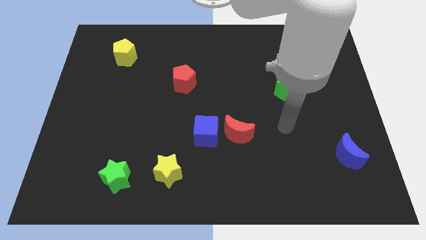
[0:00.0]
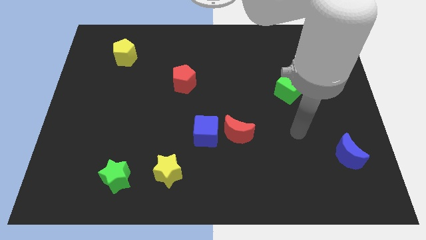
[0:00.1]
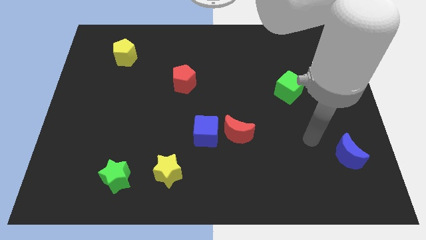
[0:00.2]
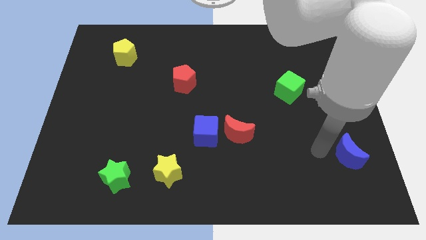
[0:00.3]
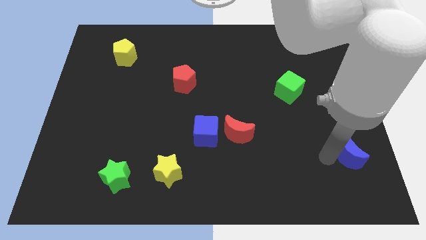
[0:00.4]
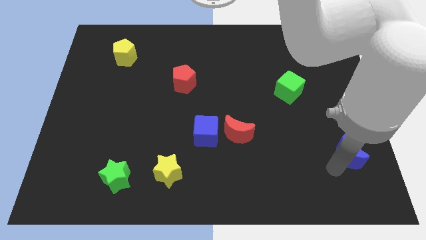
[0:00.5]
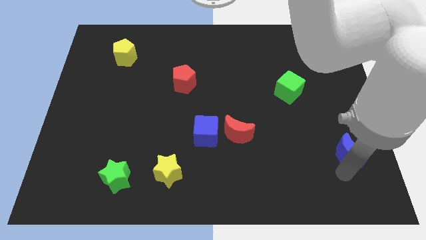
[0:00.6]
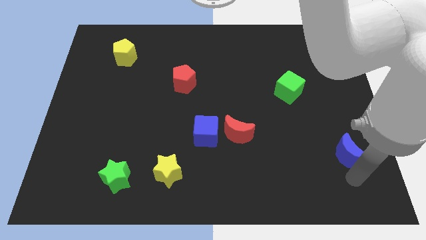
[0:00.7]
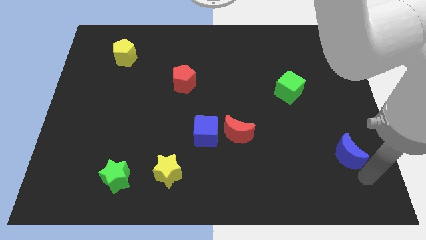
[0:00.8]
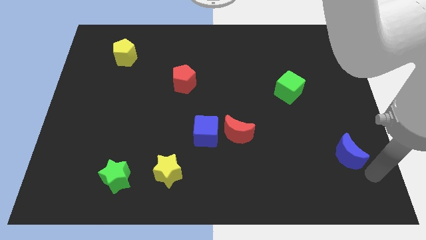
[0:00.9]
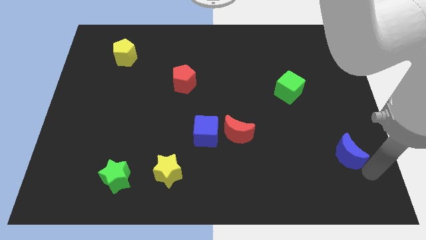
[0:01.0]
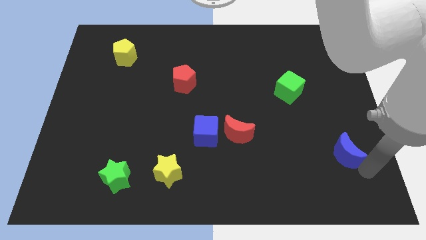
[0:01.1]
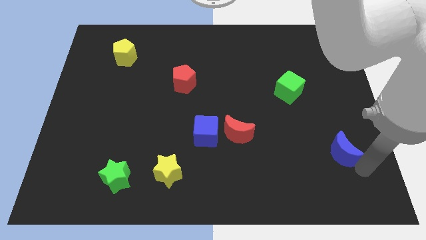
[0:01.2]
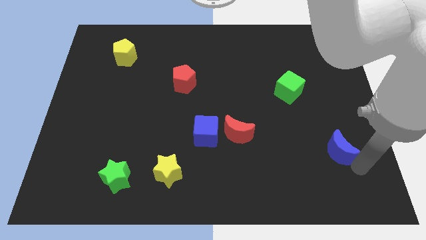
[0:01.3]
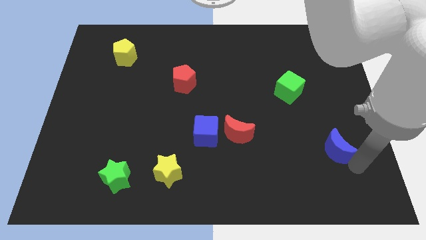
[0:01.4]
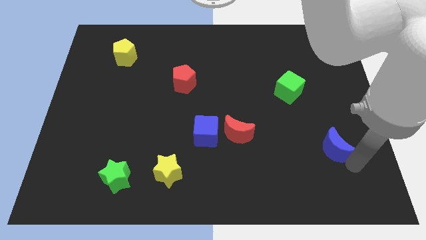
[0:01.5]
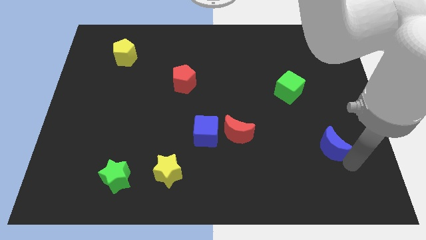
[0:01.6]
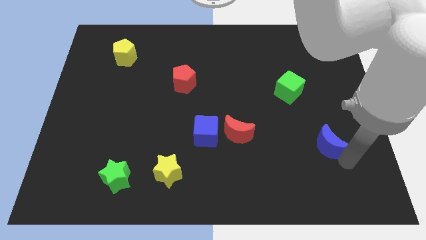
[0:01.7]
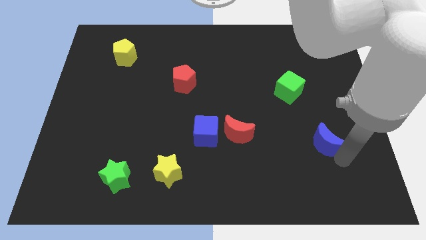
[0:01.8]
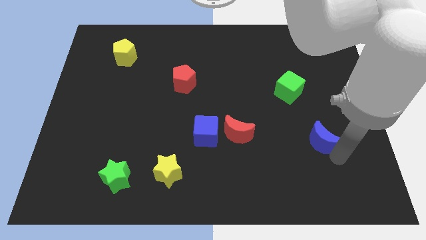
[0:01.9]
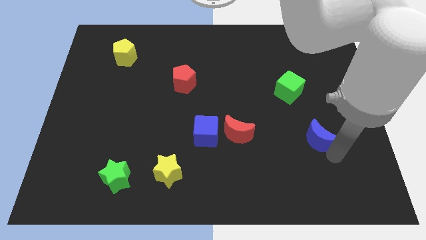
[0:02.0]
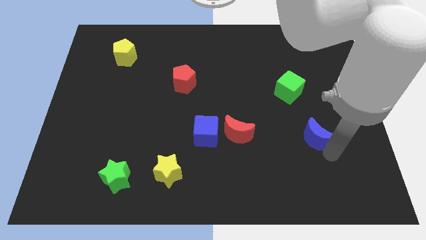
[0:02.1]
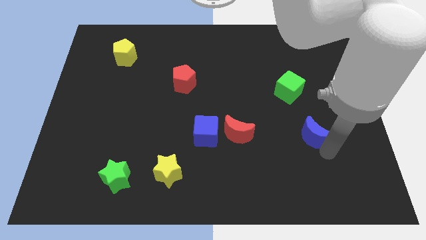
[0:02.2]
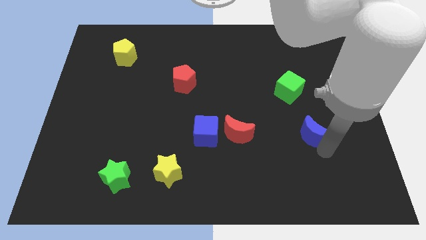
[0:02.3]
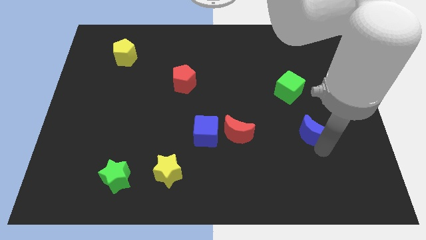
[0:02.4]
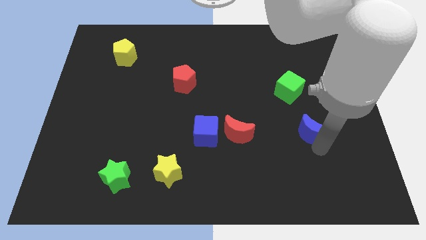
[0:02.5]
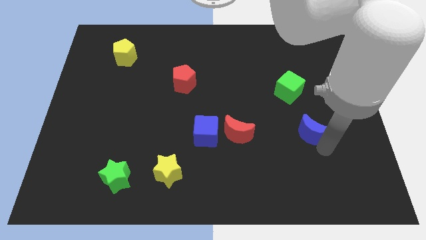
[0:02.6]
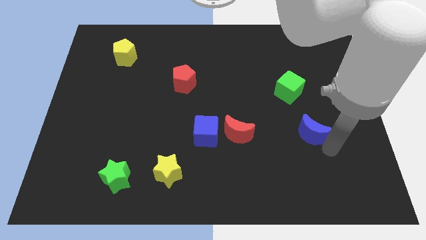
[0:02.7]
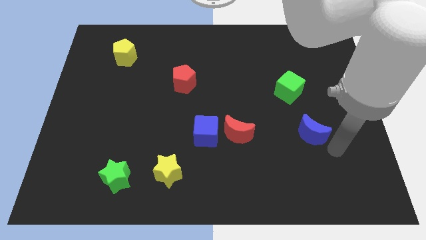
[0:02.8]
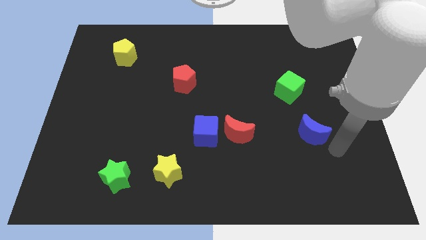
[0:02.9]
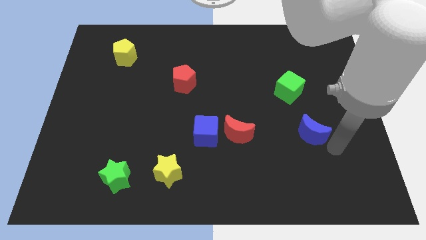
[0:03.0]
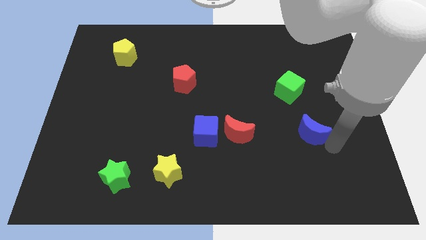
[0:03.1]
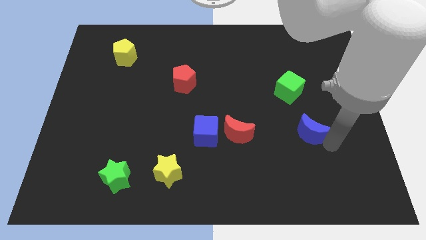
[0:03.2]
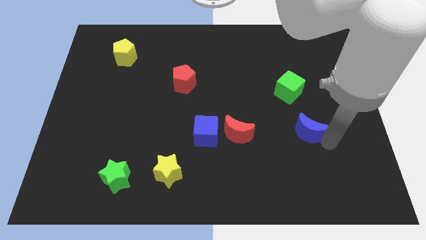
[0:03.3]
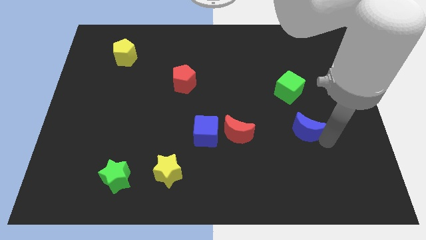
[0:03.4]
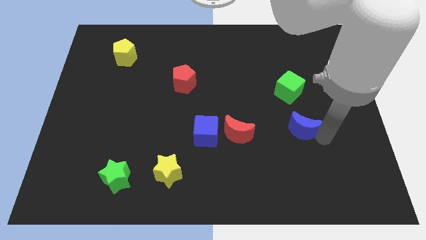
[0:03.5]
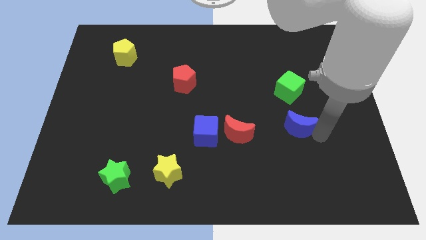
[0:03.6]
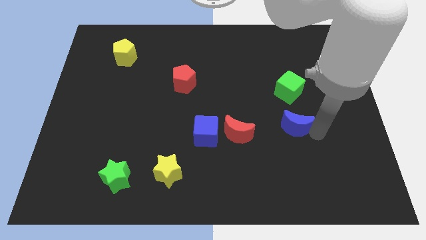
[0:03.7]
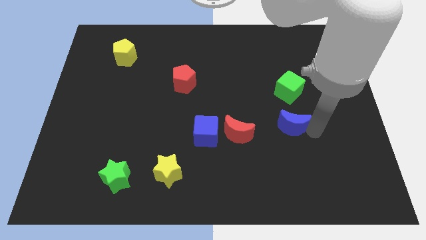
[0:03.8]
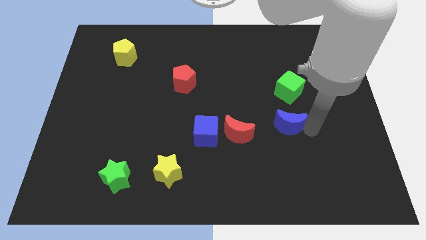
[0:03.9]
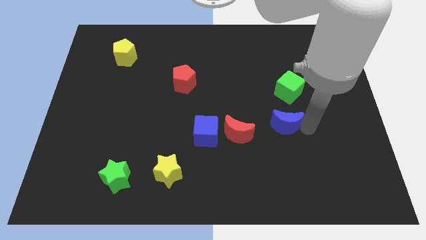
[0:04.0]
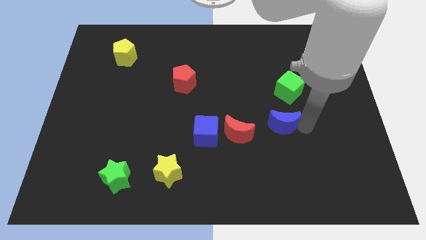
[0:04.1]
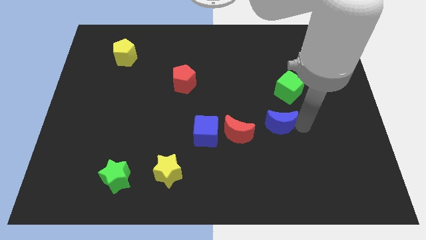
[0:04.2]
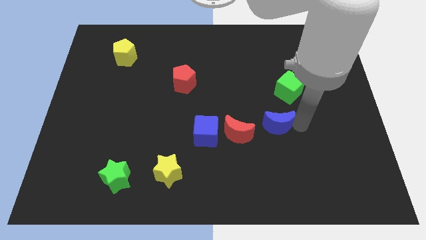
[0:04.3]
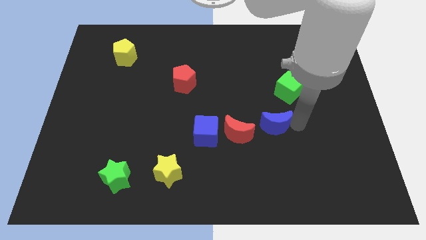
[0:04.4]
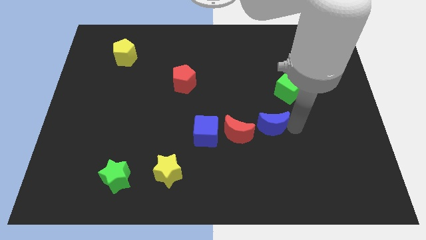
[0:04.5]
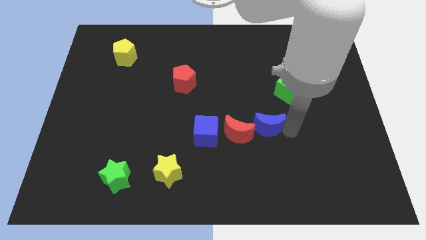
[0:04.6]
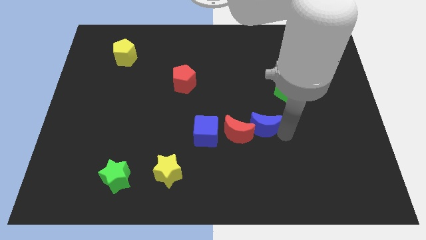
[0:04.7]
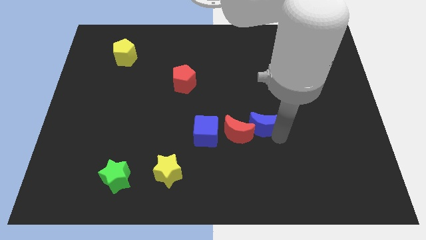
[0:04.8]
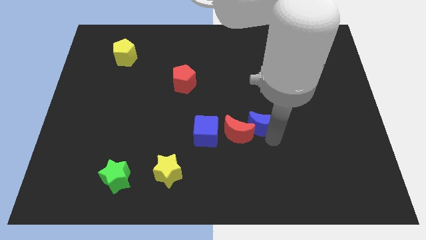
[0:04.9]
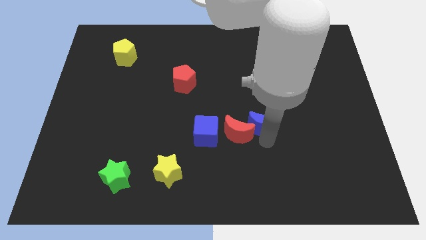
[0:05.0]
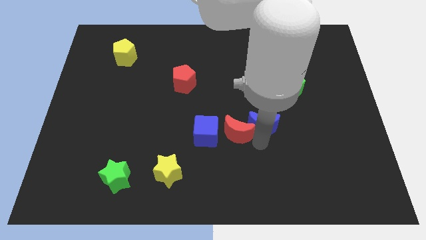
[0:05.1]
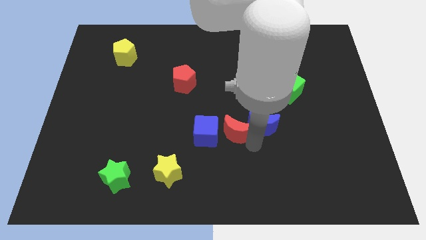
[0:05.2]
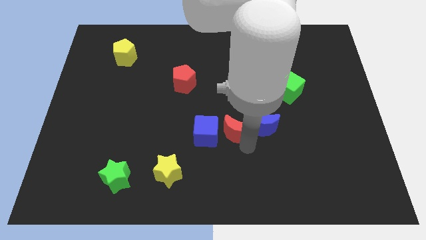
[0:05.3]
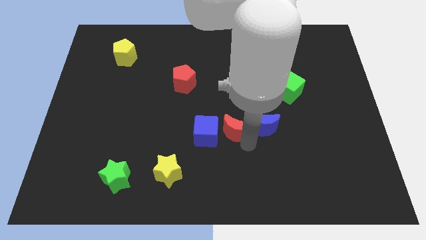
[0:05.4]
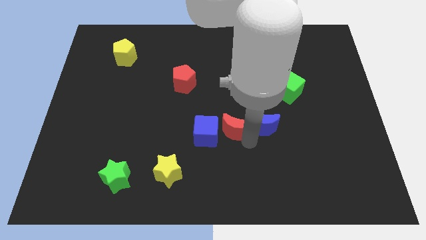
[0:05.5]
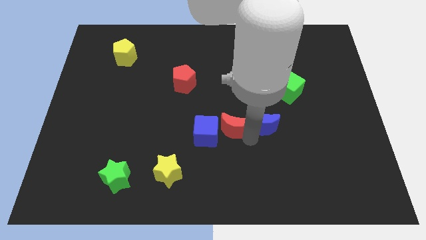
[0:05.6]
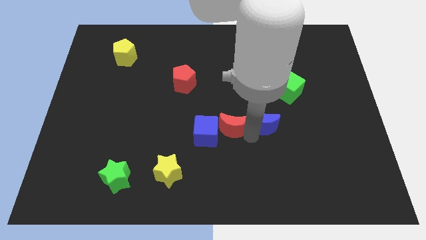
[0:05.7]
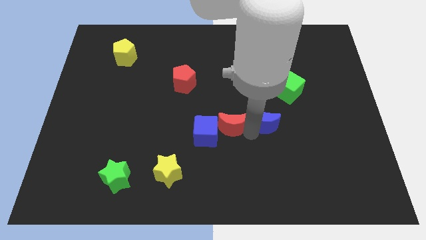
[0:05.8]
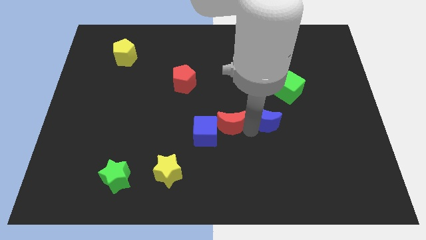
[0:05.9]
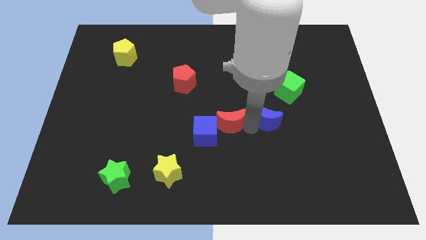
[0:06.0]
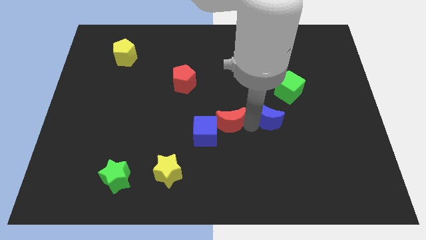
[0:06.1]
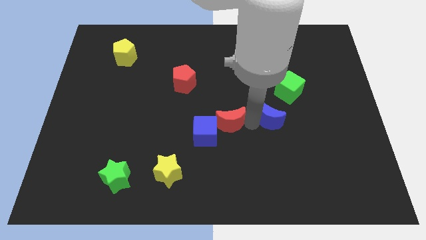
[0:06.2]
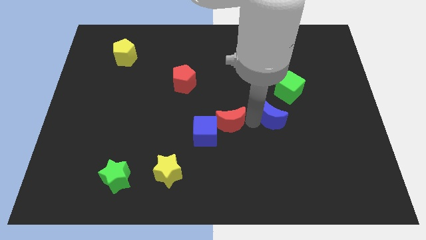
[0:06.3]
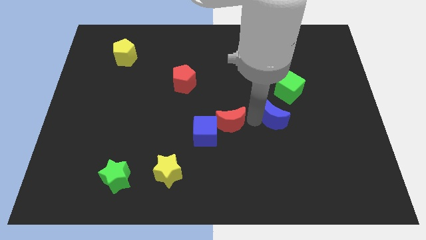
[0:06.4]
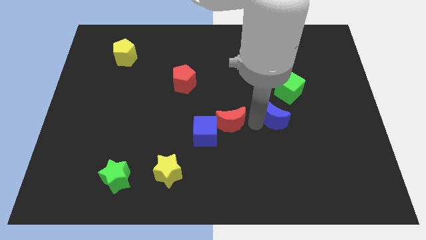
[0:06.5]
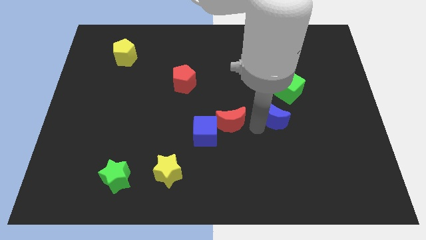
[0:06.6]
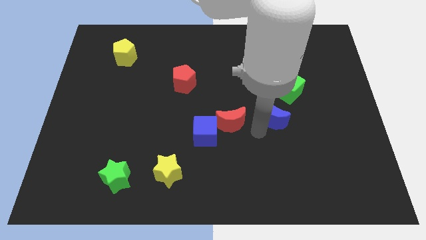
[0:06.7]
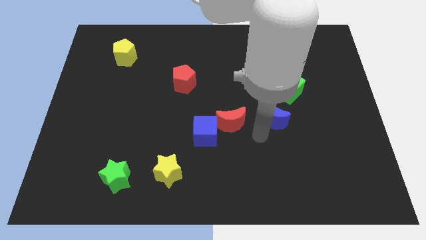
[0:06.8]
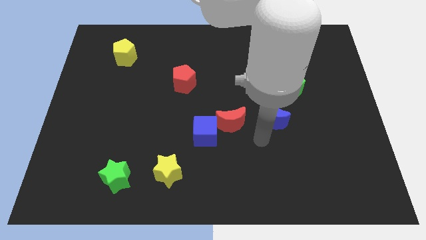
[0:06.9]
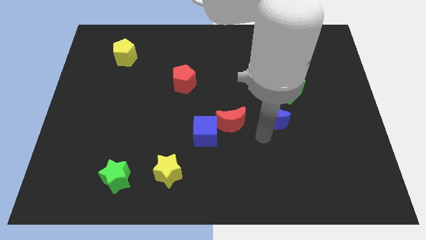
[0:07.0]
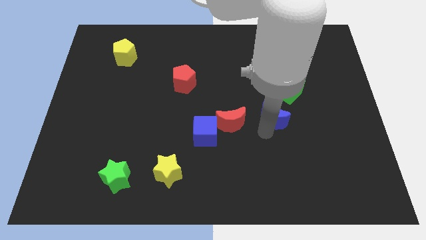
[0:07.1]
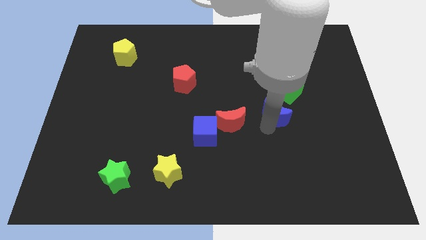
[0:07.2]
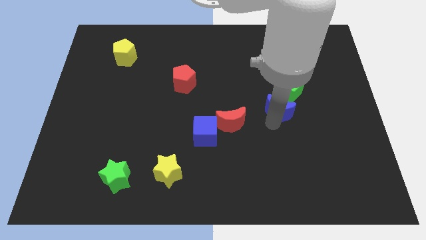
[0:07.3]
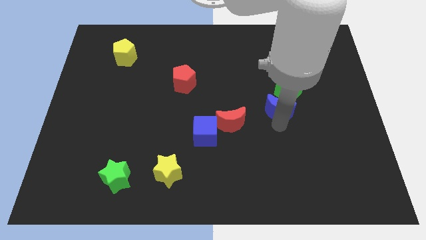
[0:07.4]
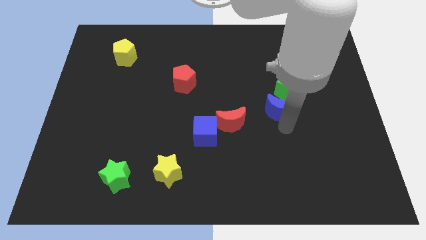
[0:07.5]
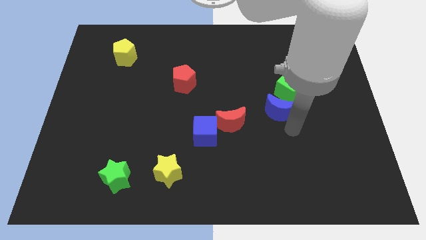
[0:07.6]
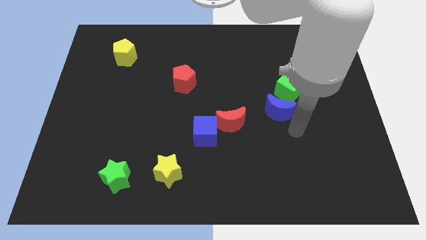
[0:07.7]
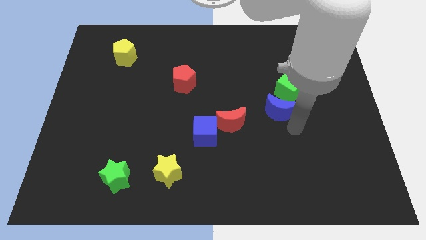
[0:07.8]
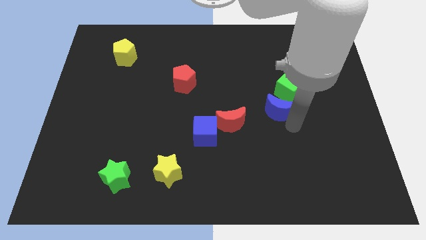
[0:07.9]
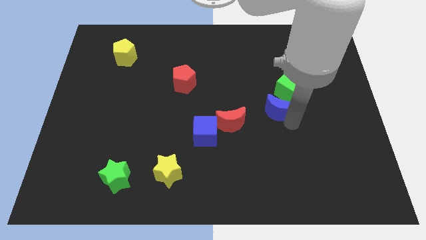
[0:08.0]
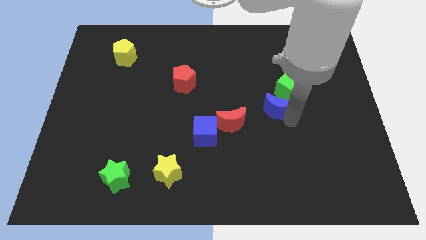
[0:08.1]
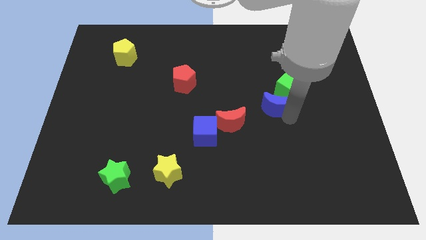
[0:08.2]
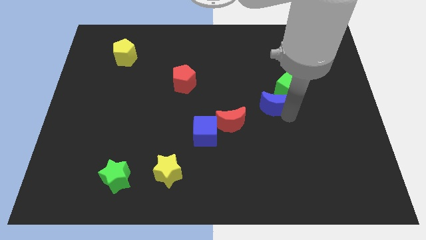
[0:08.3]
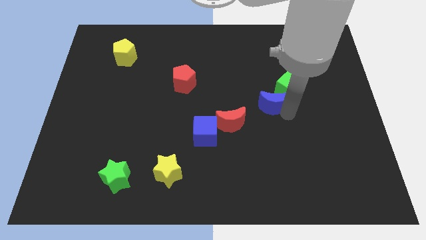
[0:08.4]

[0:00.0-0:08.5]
move the blue moon up and left diagonally
